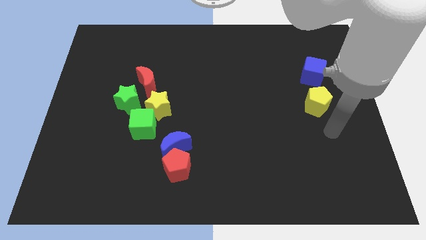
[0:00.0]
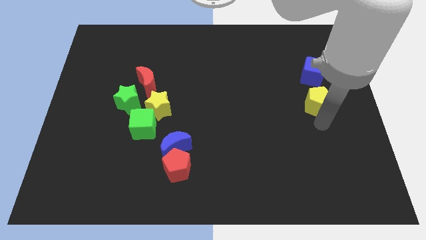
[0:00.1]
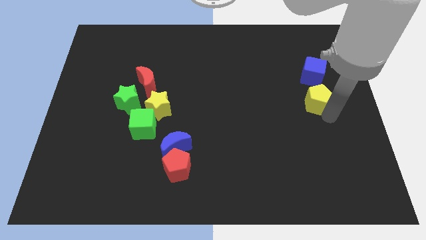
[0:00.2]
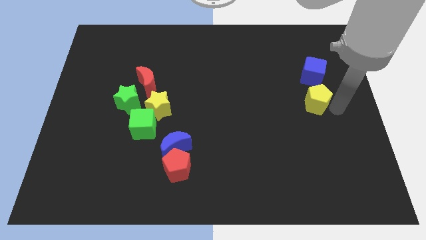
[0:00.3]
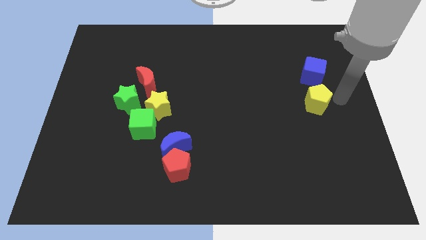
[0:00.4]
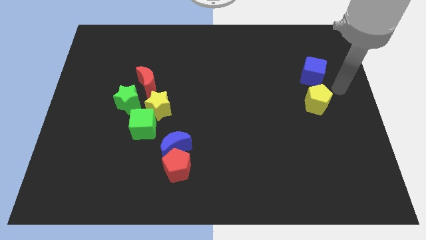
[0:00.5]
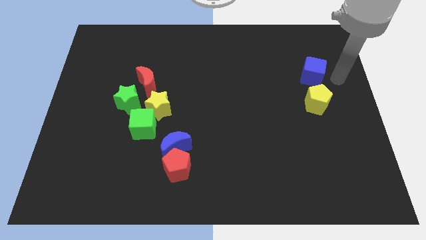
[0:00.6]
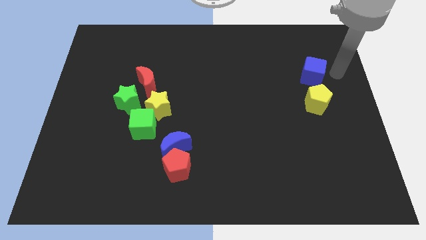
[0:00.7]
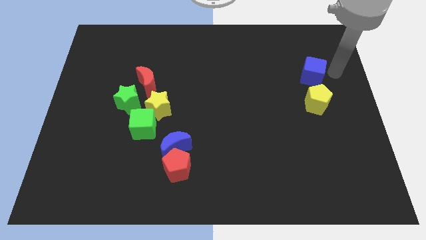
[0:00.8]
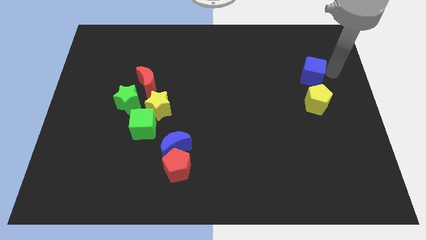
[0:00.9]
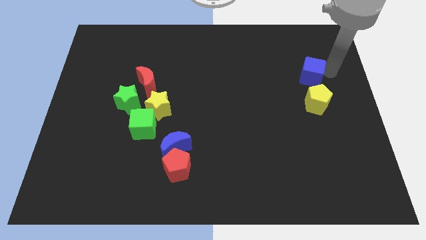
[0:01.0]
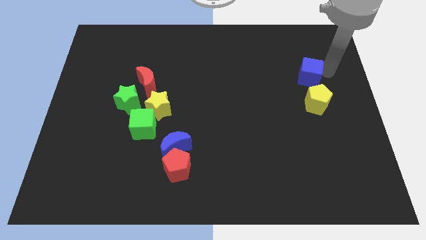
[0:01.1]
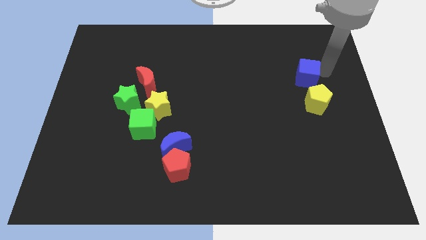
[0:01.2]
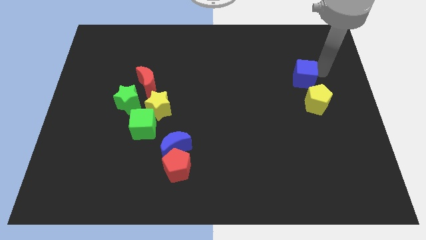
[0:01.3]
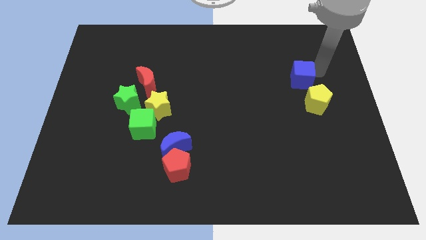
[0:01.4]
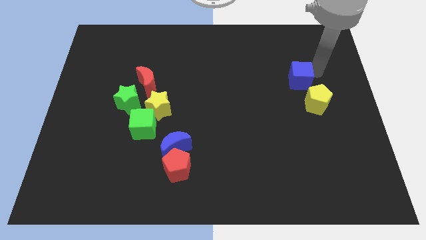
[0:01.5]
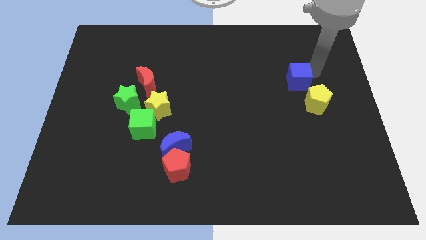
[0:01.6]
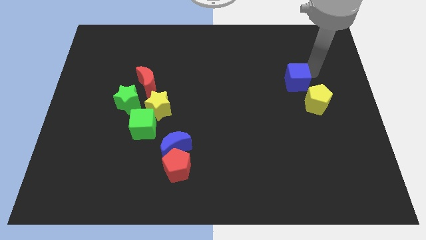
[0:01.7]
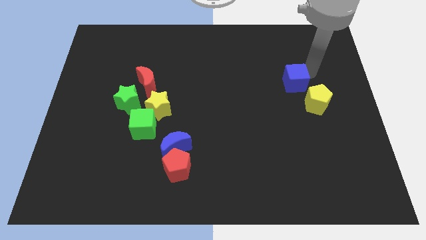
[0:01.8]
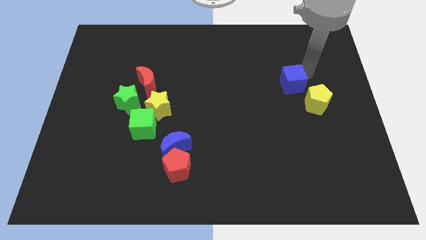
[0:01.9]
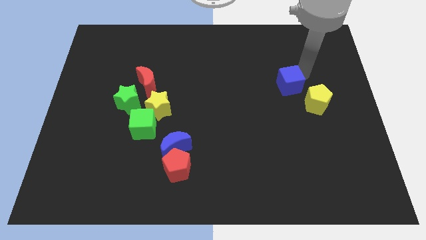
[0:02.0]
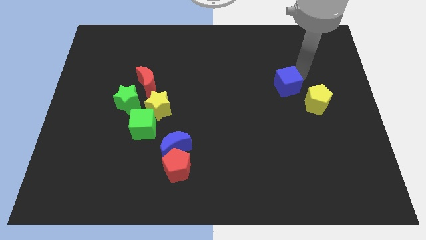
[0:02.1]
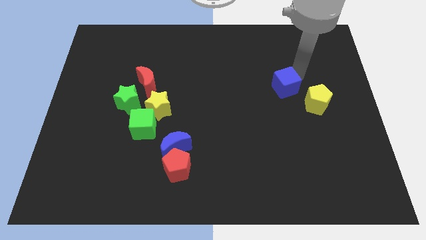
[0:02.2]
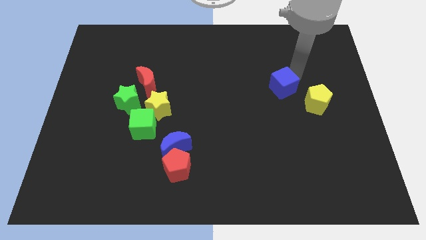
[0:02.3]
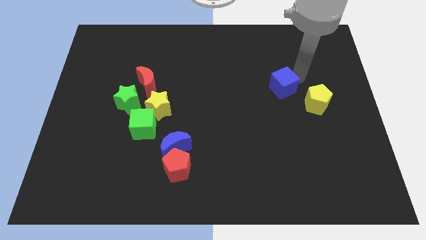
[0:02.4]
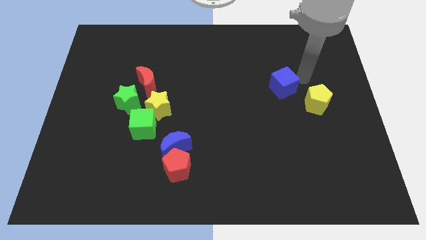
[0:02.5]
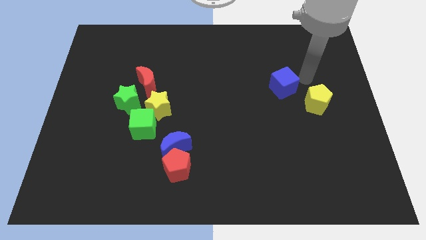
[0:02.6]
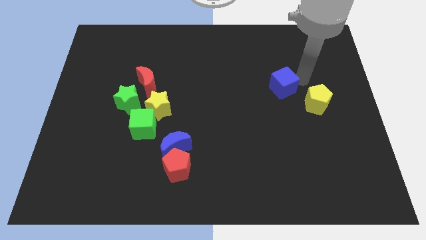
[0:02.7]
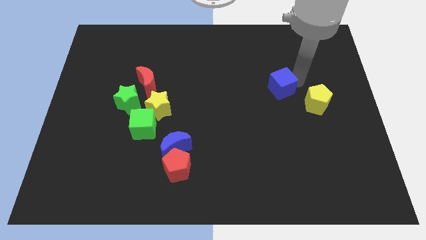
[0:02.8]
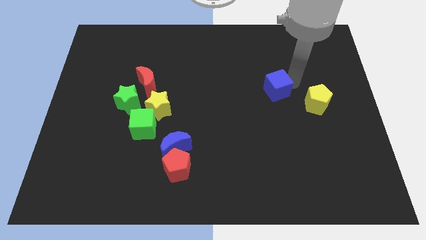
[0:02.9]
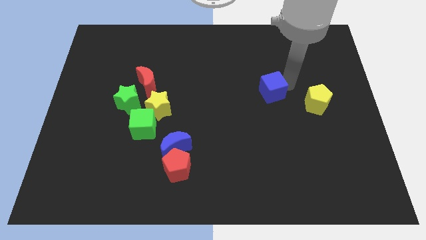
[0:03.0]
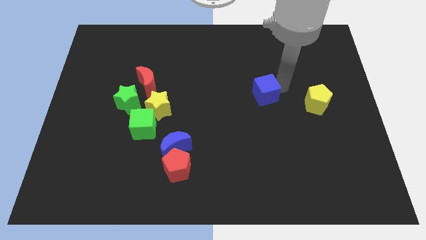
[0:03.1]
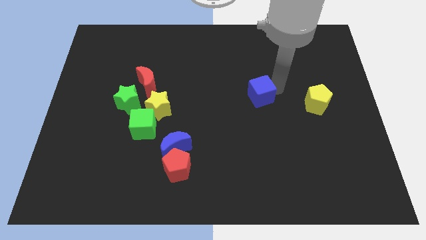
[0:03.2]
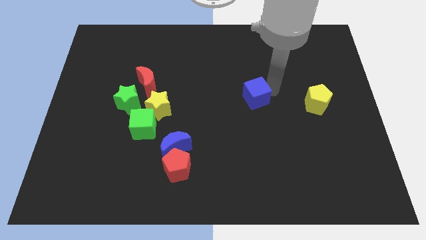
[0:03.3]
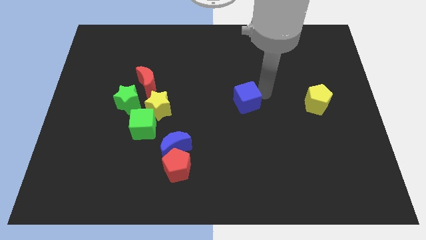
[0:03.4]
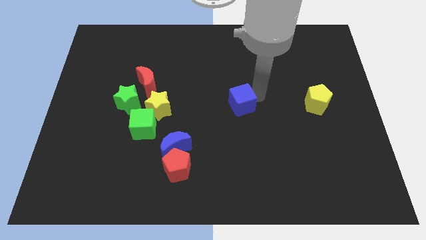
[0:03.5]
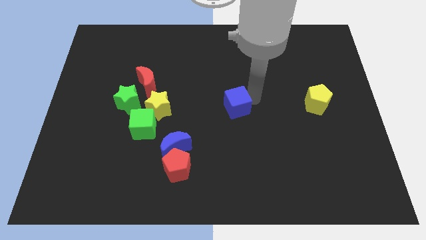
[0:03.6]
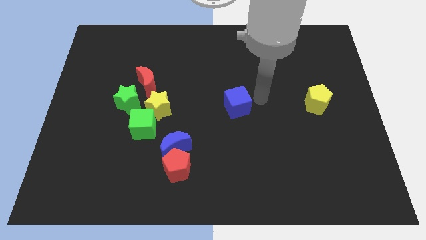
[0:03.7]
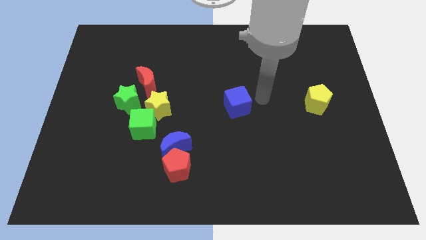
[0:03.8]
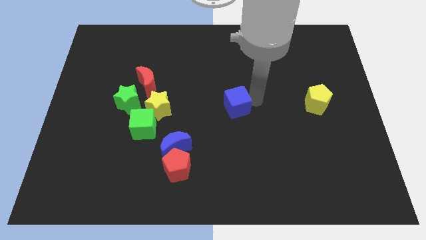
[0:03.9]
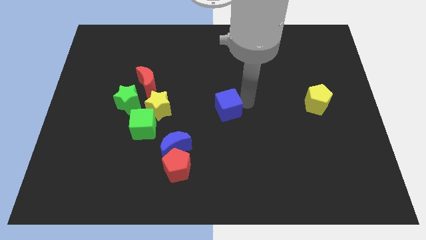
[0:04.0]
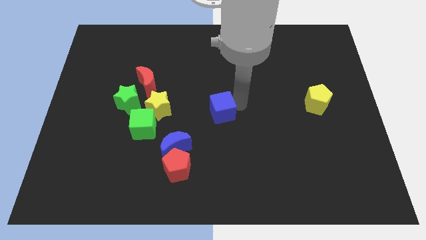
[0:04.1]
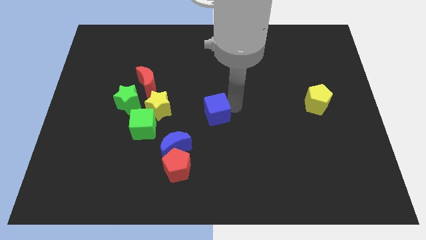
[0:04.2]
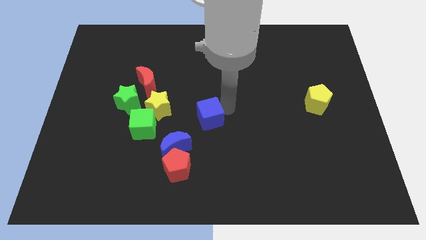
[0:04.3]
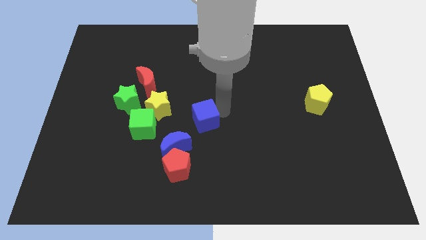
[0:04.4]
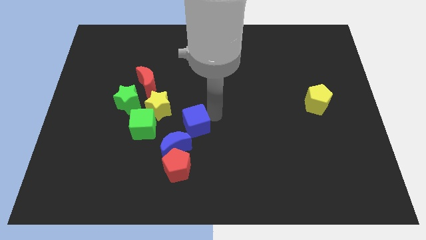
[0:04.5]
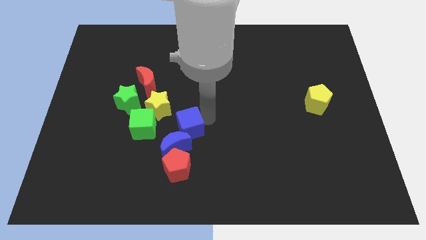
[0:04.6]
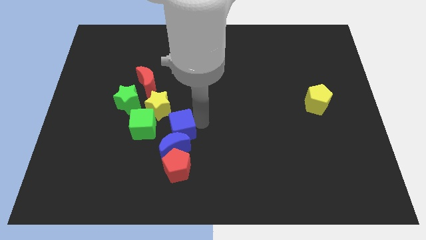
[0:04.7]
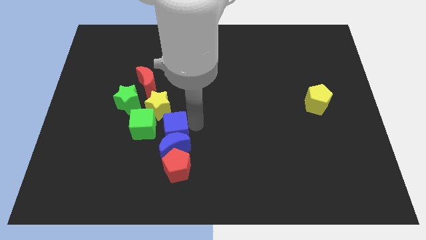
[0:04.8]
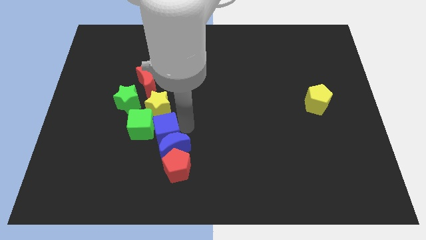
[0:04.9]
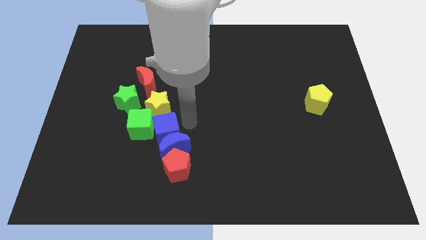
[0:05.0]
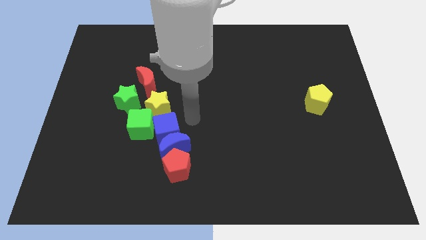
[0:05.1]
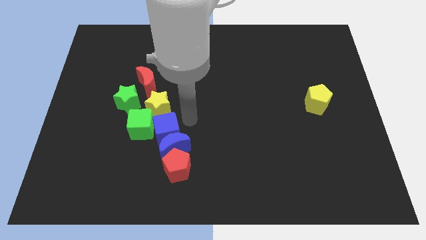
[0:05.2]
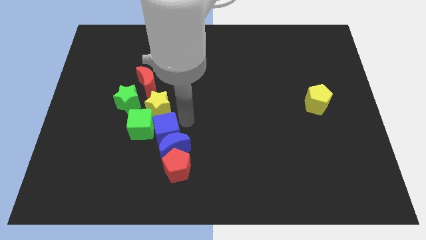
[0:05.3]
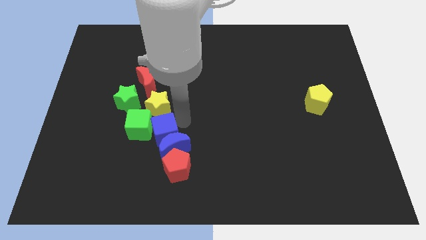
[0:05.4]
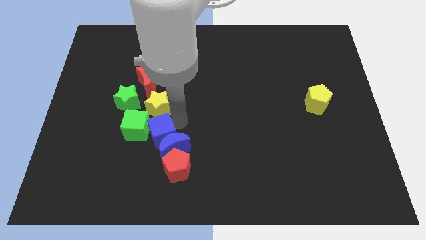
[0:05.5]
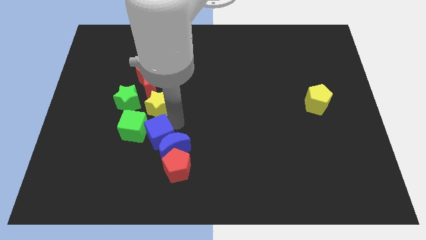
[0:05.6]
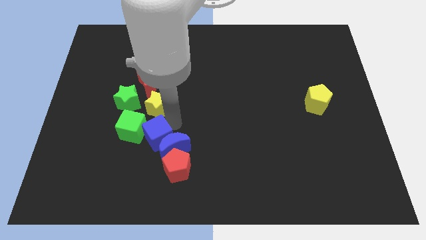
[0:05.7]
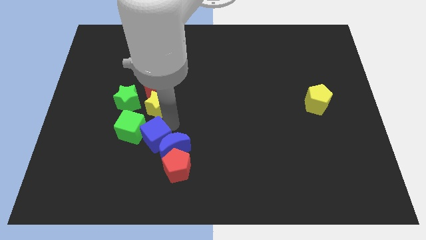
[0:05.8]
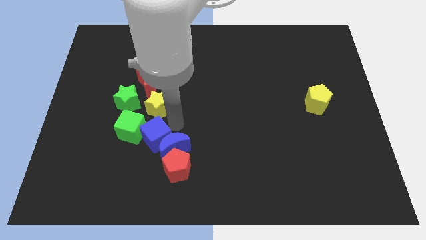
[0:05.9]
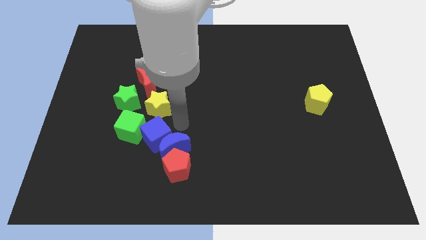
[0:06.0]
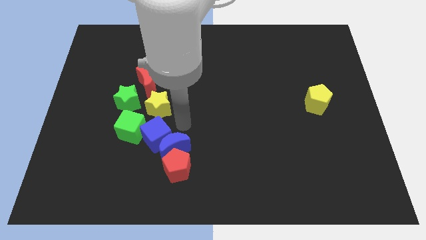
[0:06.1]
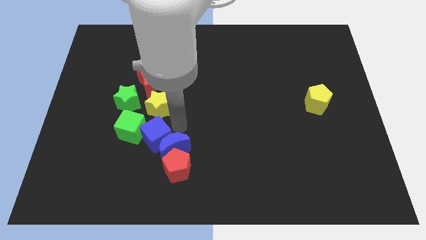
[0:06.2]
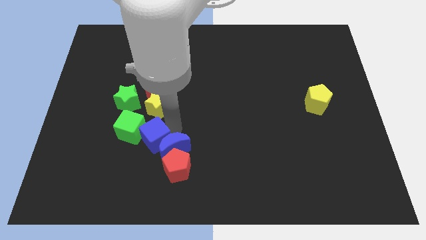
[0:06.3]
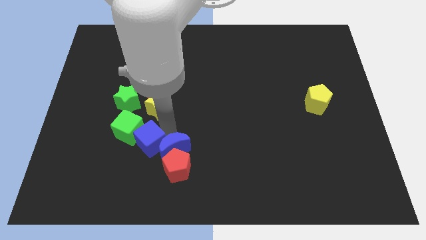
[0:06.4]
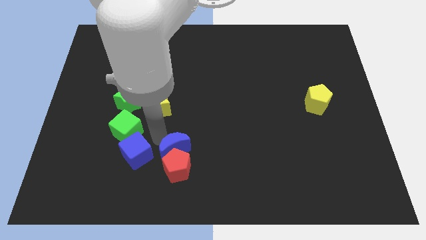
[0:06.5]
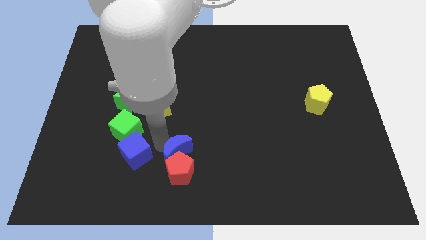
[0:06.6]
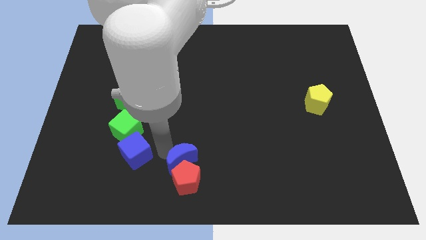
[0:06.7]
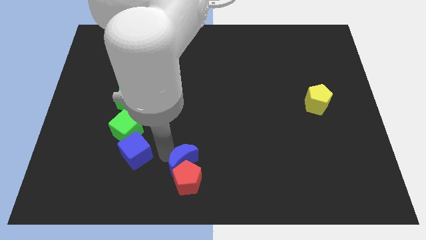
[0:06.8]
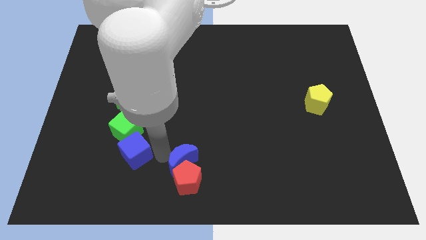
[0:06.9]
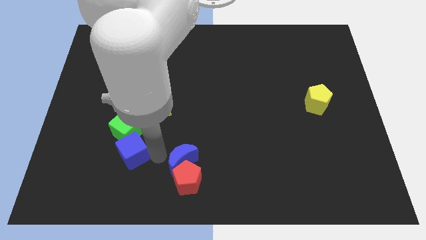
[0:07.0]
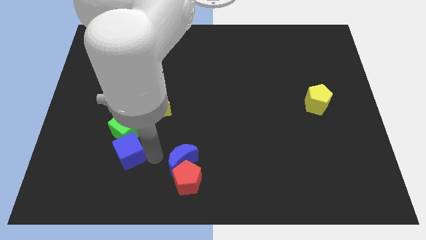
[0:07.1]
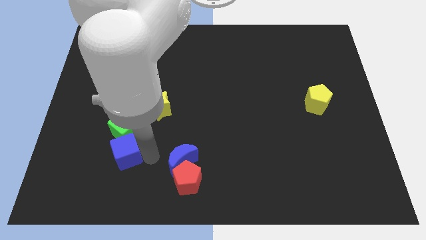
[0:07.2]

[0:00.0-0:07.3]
slide the blue cube to the bottom left side of the green cube
